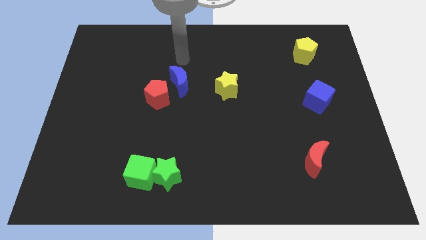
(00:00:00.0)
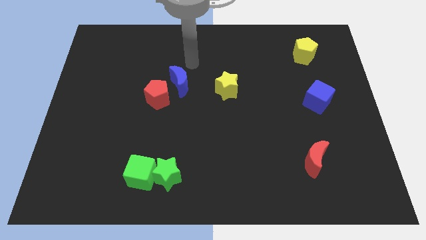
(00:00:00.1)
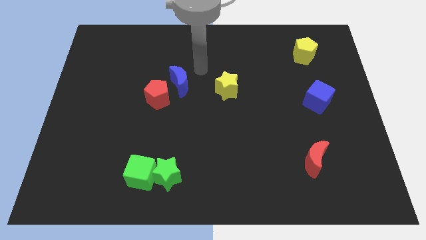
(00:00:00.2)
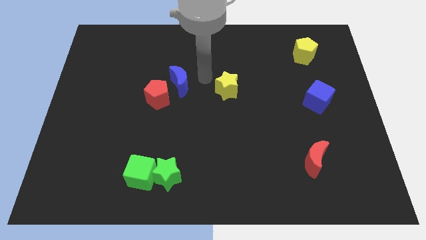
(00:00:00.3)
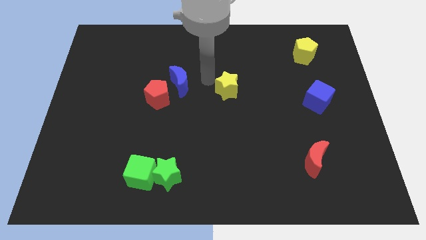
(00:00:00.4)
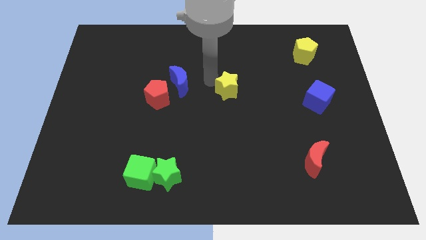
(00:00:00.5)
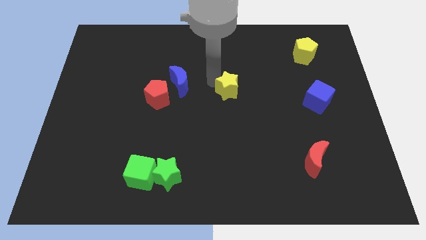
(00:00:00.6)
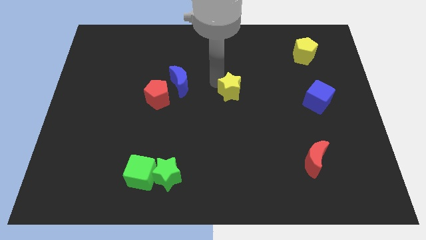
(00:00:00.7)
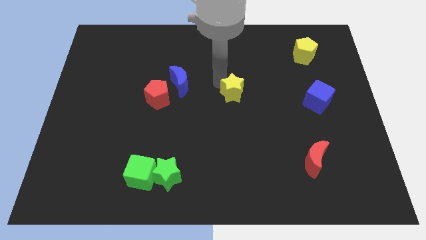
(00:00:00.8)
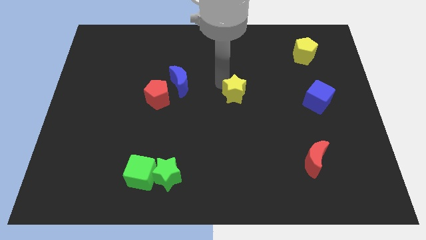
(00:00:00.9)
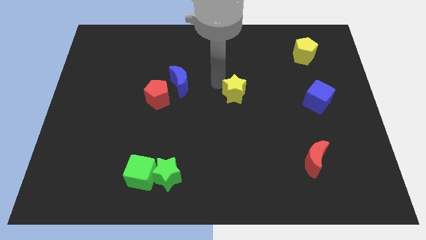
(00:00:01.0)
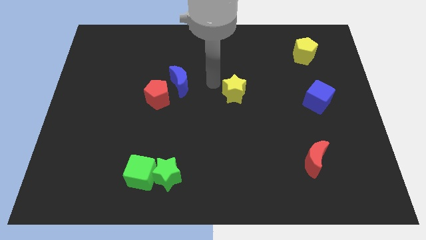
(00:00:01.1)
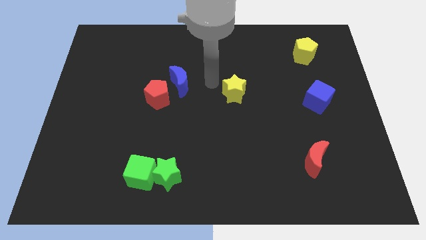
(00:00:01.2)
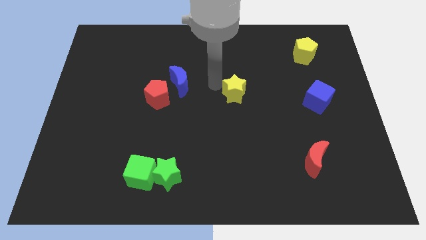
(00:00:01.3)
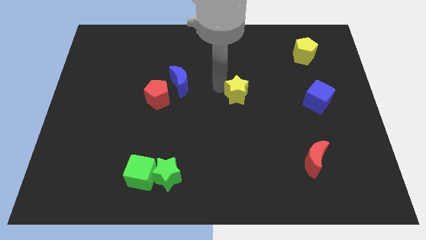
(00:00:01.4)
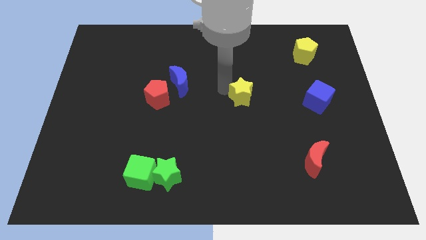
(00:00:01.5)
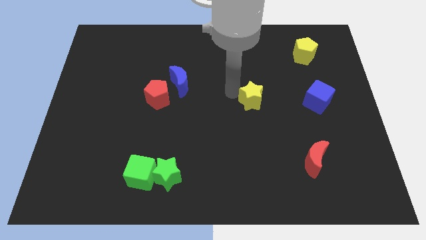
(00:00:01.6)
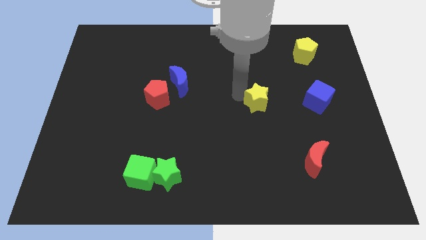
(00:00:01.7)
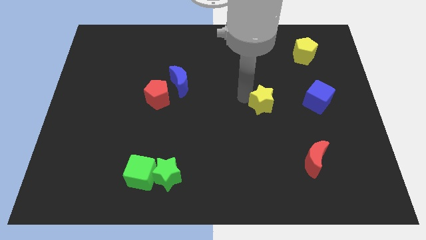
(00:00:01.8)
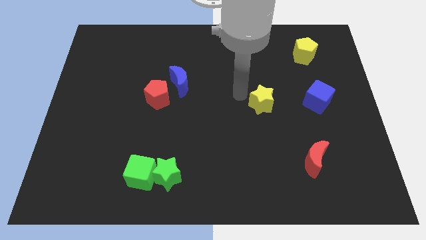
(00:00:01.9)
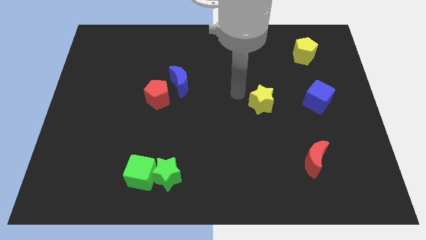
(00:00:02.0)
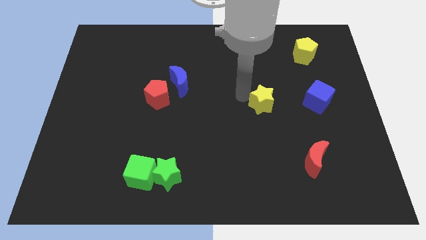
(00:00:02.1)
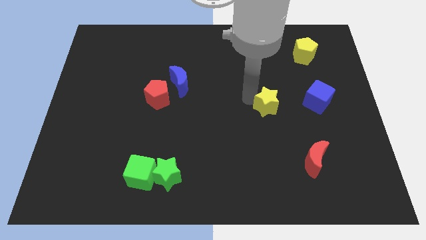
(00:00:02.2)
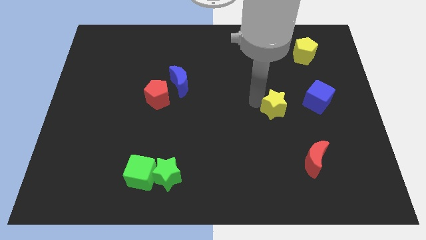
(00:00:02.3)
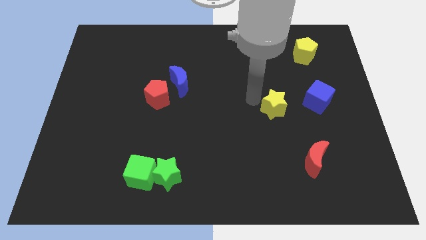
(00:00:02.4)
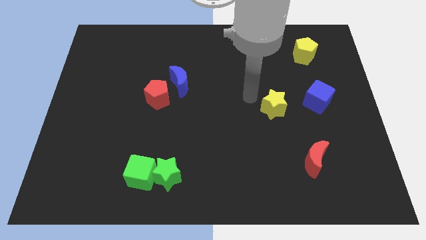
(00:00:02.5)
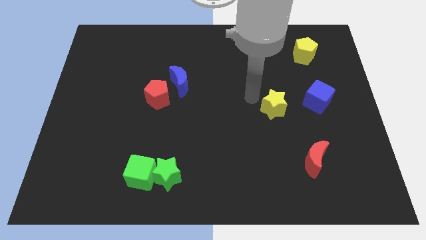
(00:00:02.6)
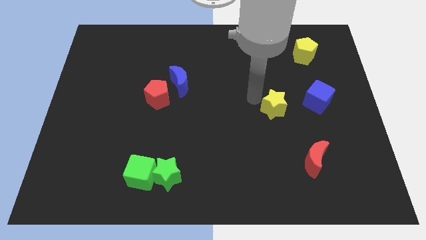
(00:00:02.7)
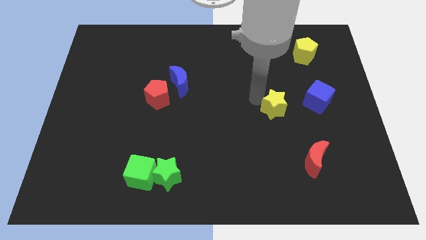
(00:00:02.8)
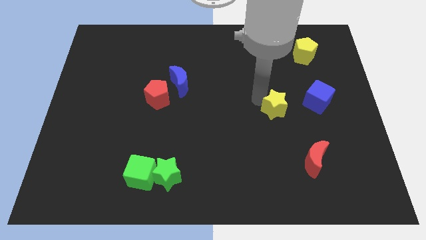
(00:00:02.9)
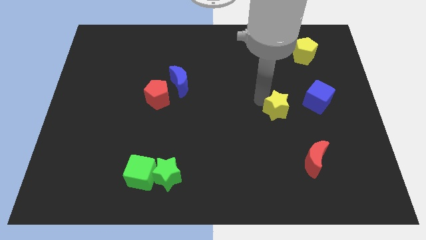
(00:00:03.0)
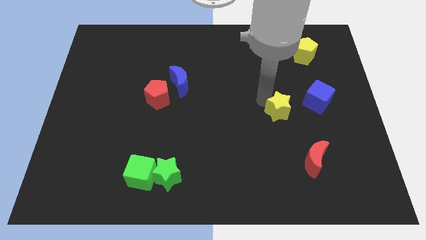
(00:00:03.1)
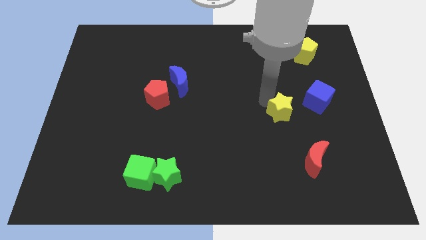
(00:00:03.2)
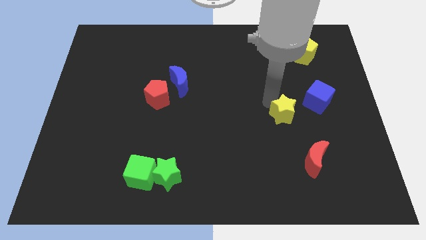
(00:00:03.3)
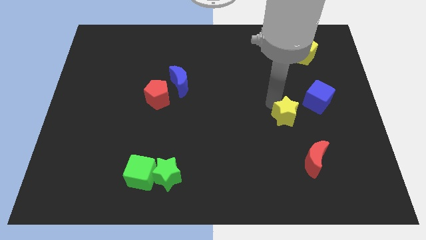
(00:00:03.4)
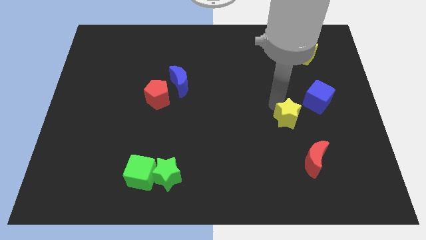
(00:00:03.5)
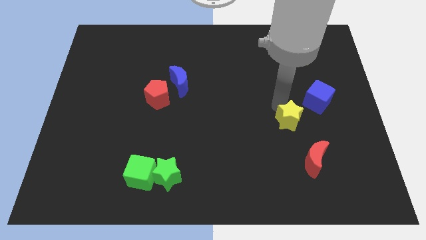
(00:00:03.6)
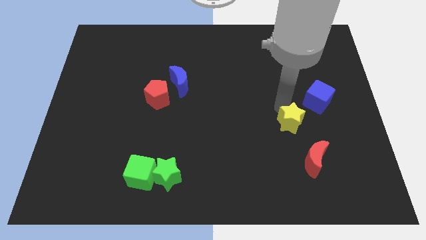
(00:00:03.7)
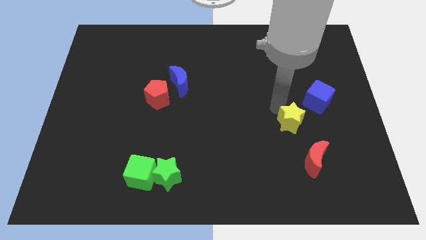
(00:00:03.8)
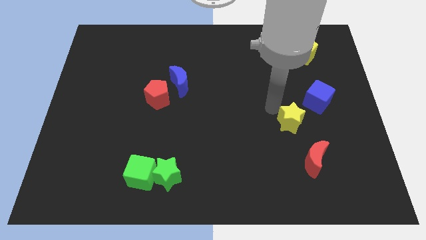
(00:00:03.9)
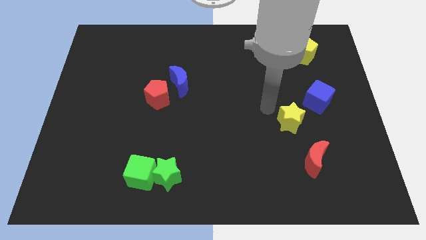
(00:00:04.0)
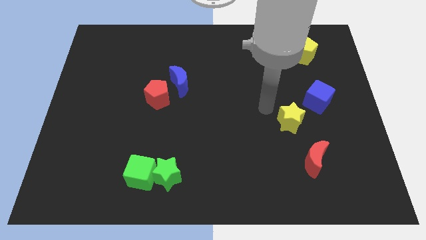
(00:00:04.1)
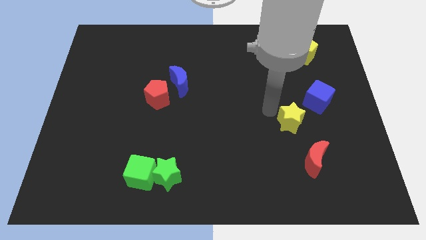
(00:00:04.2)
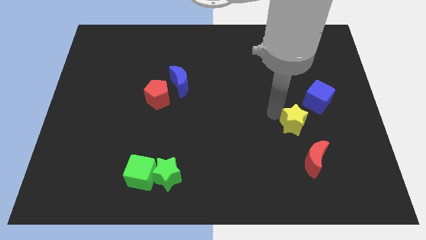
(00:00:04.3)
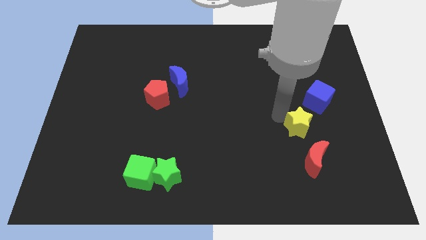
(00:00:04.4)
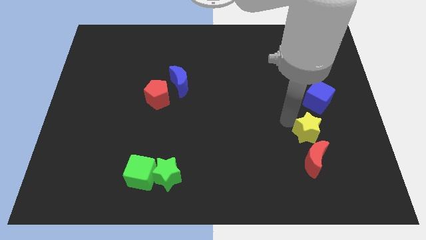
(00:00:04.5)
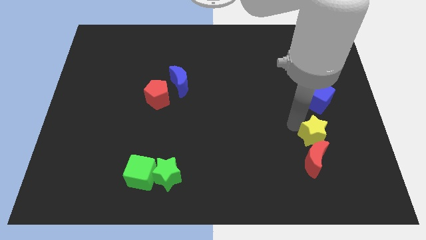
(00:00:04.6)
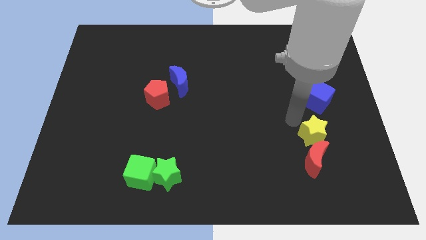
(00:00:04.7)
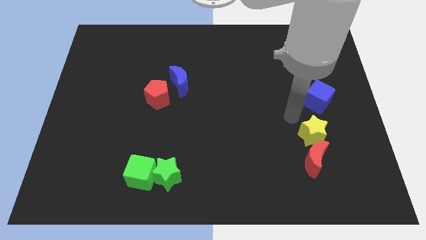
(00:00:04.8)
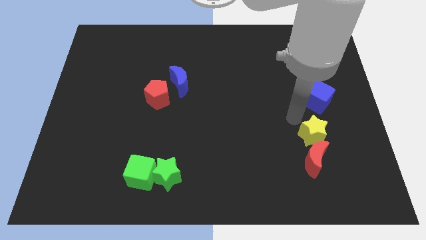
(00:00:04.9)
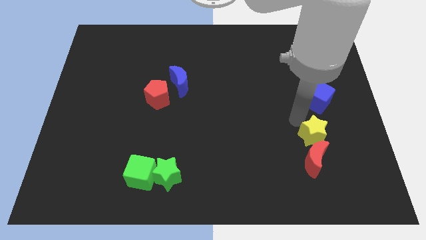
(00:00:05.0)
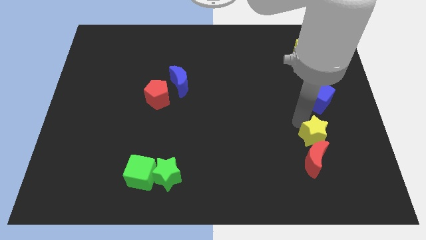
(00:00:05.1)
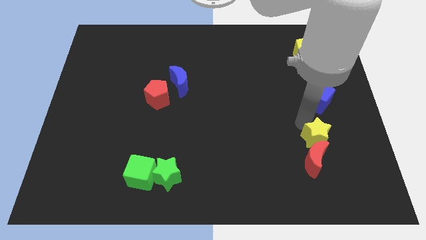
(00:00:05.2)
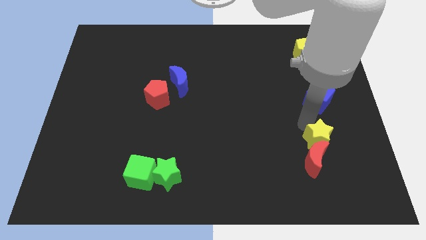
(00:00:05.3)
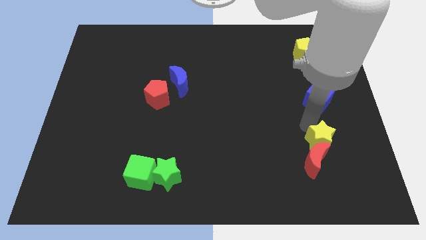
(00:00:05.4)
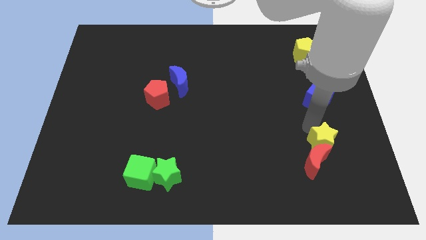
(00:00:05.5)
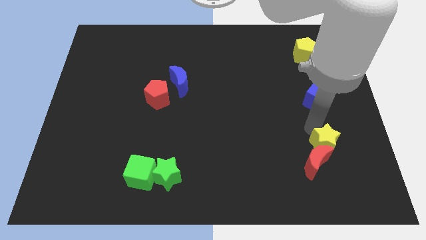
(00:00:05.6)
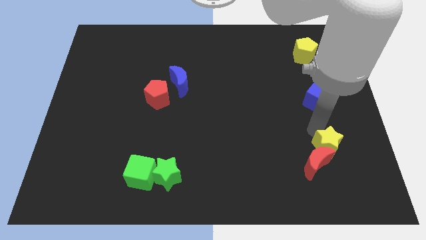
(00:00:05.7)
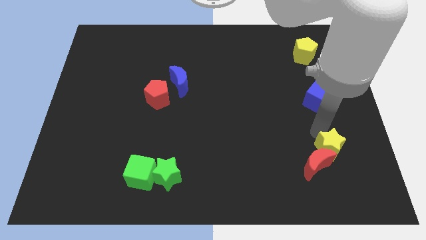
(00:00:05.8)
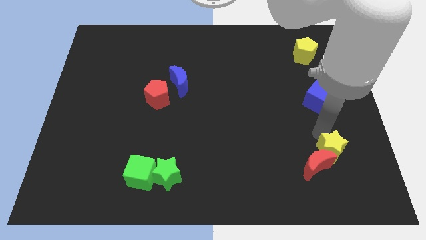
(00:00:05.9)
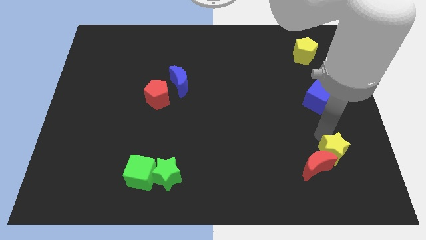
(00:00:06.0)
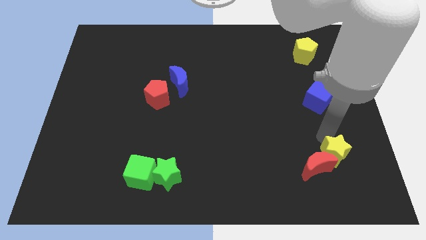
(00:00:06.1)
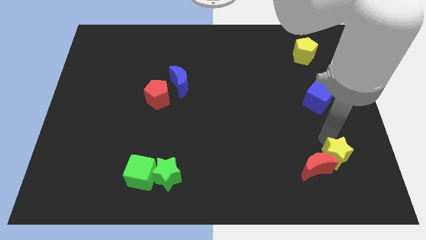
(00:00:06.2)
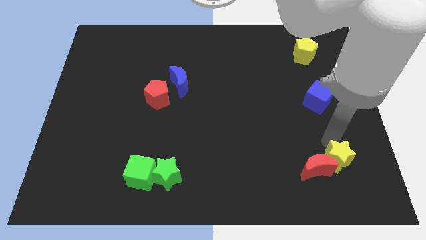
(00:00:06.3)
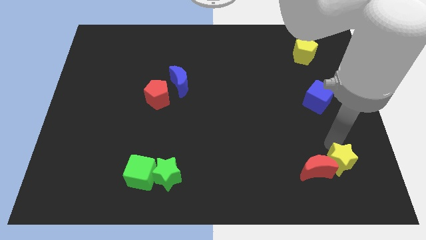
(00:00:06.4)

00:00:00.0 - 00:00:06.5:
slide the yellow star to the bottom right side of the red moon
